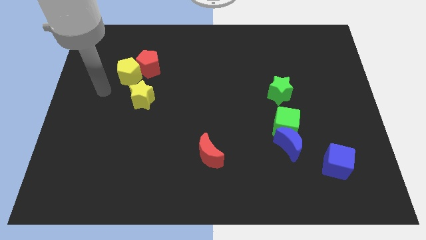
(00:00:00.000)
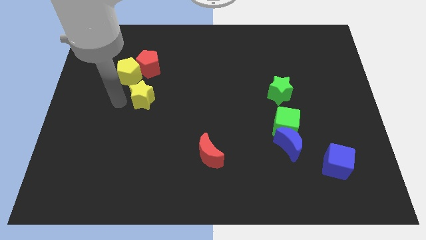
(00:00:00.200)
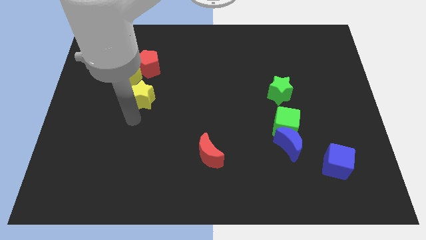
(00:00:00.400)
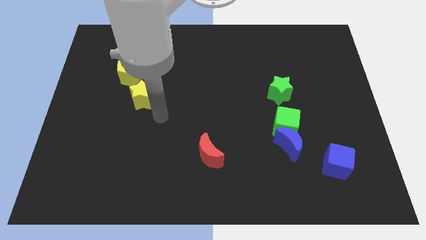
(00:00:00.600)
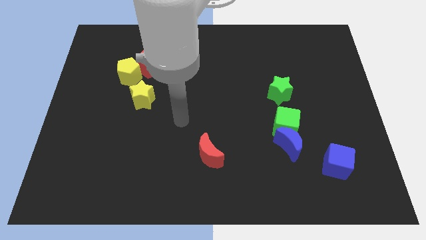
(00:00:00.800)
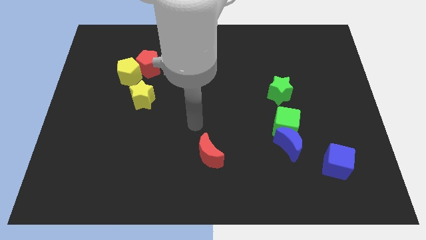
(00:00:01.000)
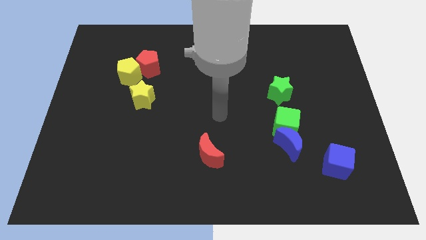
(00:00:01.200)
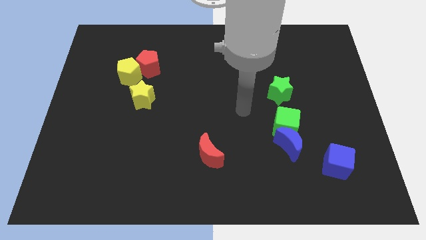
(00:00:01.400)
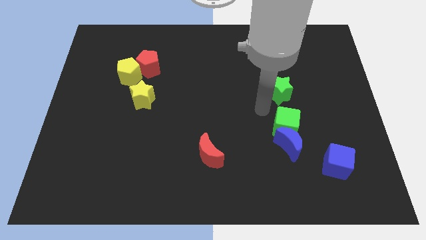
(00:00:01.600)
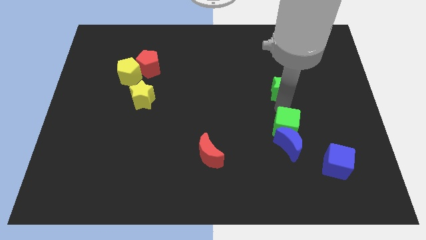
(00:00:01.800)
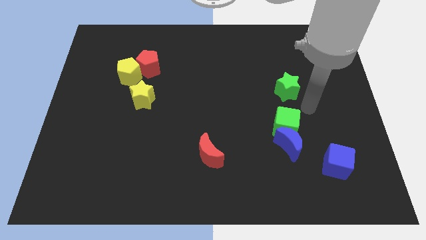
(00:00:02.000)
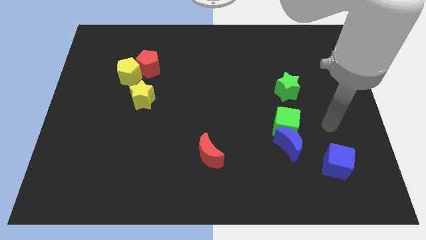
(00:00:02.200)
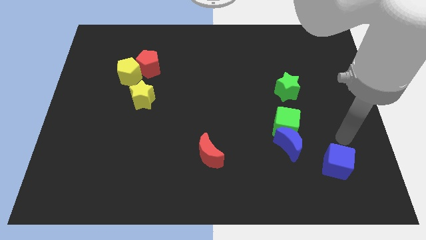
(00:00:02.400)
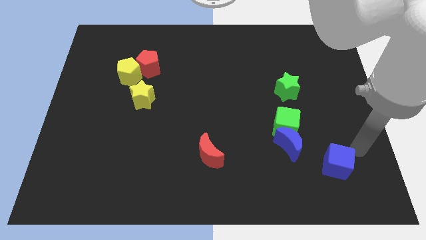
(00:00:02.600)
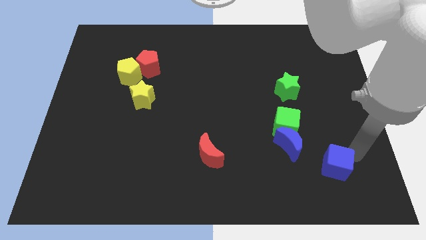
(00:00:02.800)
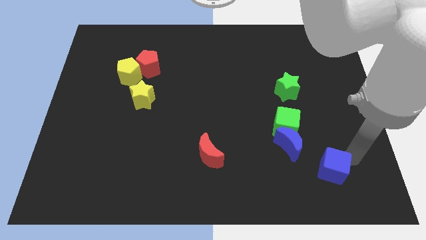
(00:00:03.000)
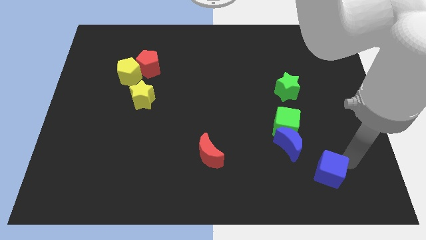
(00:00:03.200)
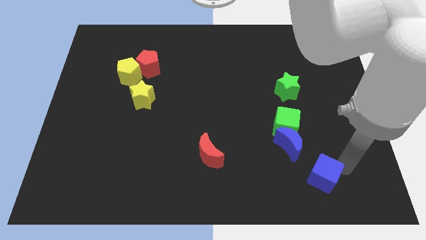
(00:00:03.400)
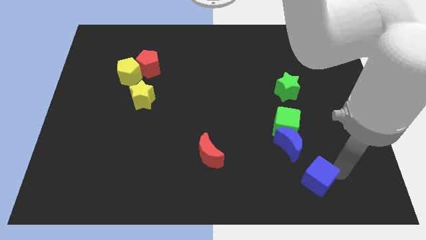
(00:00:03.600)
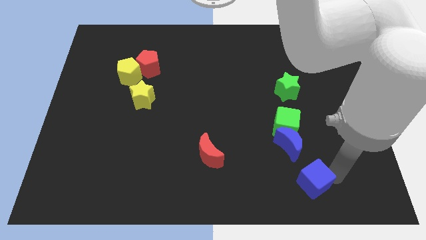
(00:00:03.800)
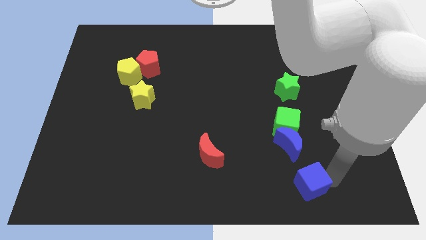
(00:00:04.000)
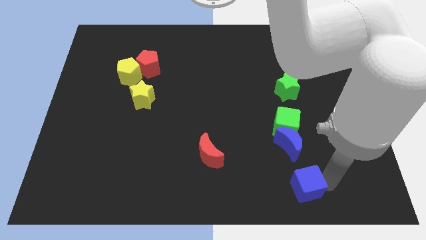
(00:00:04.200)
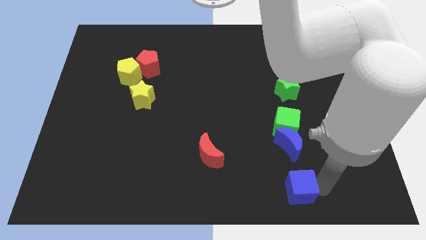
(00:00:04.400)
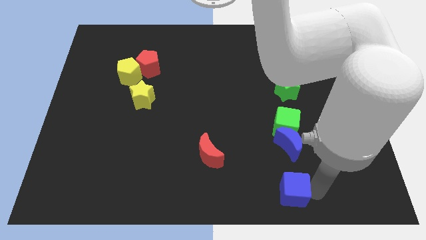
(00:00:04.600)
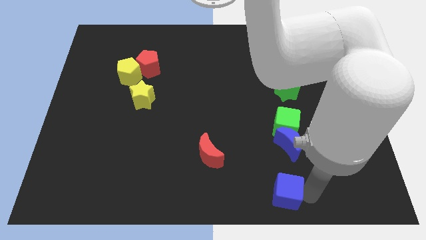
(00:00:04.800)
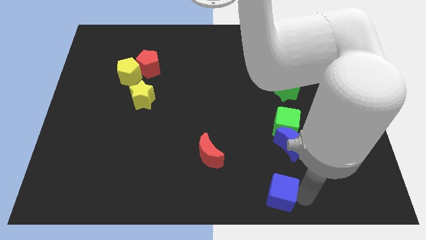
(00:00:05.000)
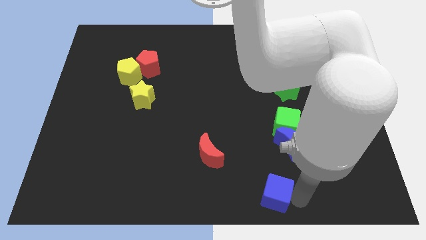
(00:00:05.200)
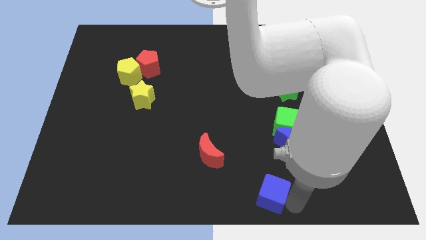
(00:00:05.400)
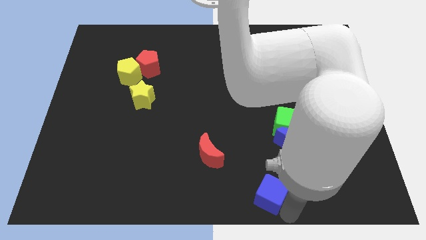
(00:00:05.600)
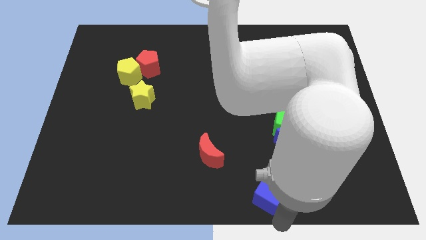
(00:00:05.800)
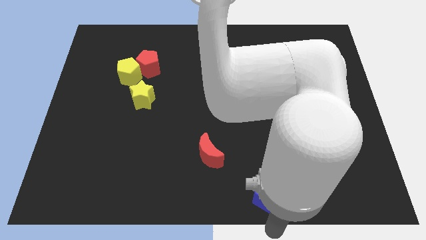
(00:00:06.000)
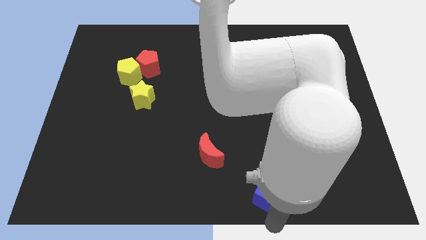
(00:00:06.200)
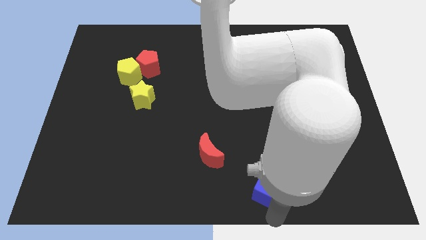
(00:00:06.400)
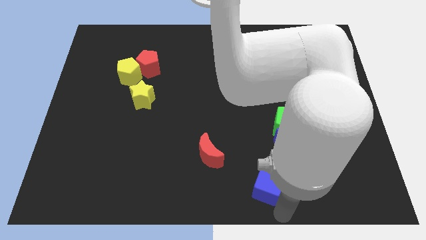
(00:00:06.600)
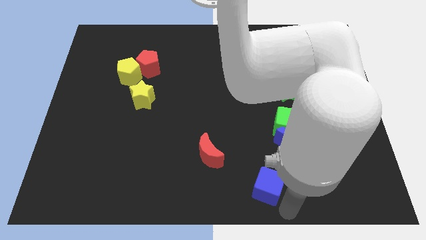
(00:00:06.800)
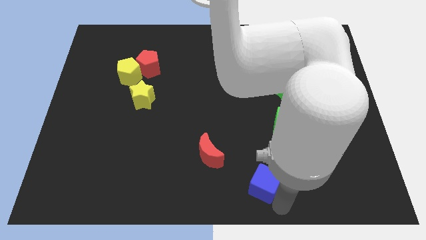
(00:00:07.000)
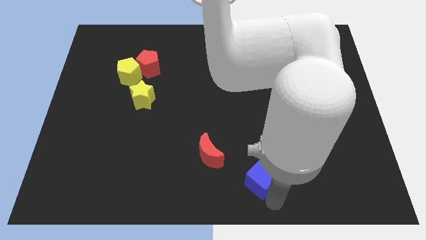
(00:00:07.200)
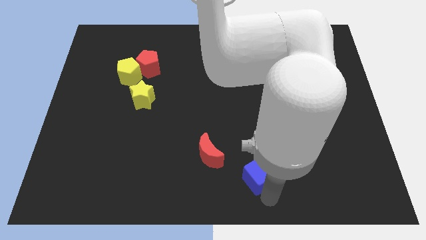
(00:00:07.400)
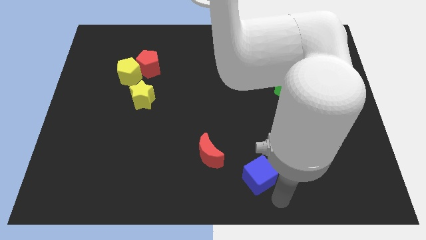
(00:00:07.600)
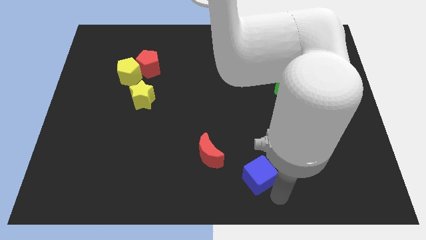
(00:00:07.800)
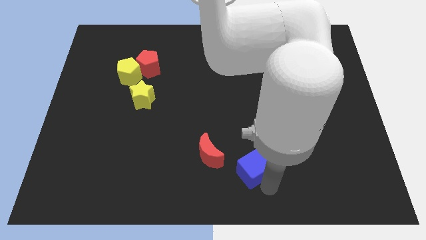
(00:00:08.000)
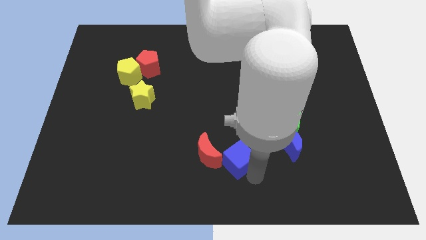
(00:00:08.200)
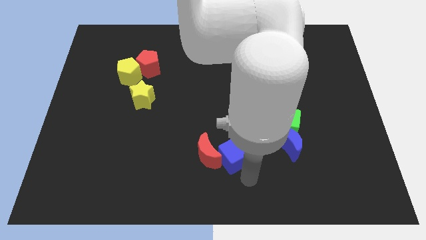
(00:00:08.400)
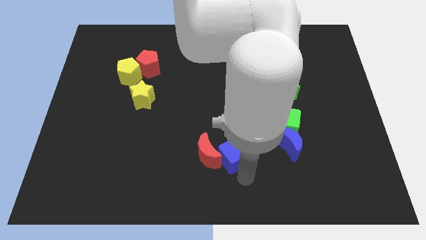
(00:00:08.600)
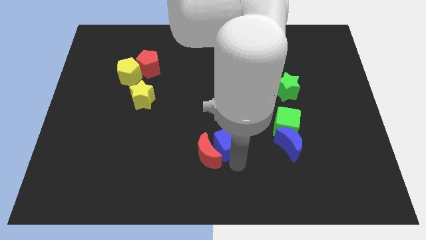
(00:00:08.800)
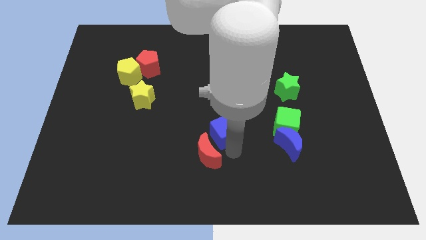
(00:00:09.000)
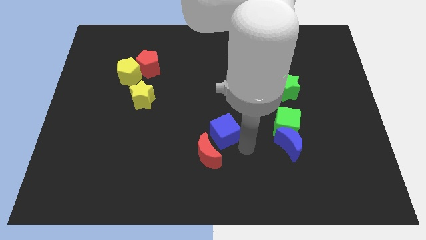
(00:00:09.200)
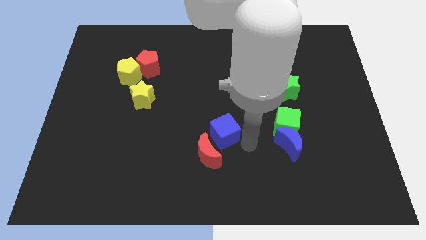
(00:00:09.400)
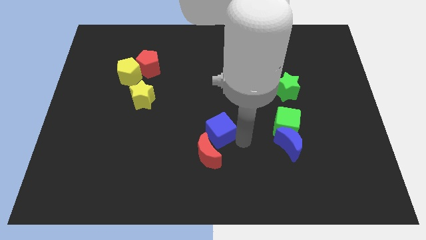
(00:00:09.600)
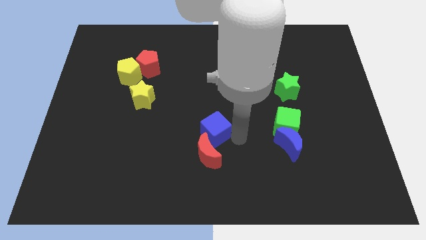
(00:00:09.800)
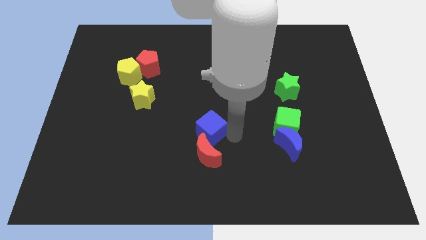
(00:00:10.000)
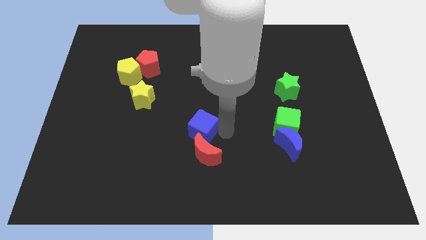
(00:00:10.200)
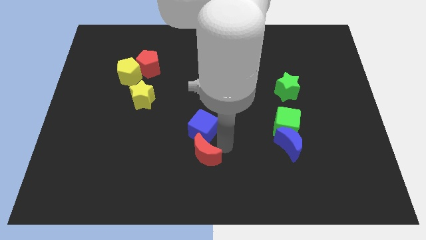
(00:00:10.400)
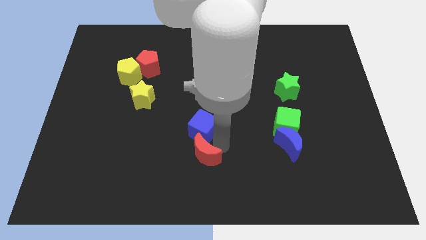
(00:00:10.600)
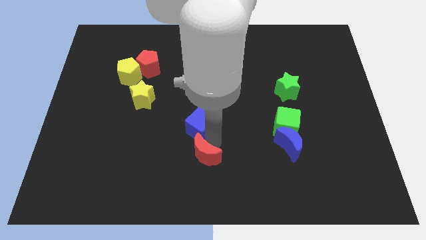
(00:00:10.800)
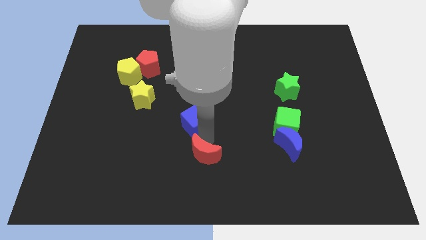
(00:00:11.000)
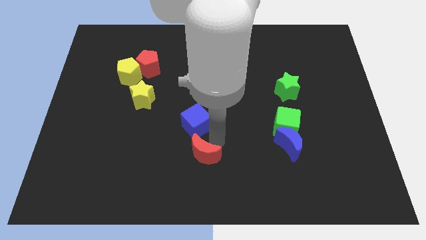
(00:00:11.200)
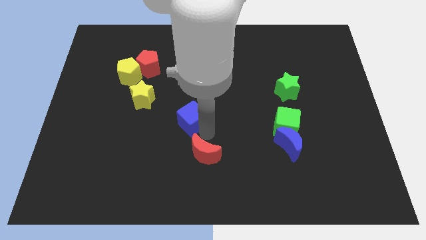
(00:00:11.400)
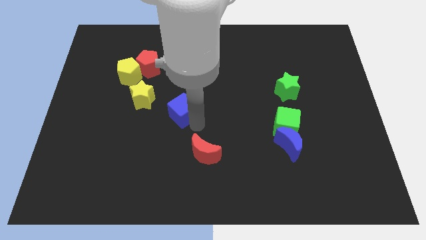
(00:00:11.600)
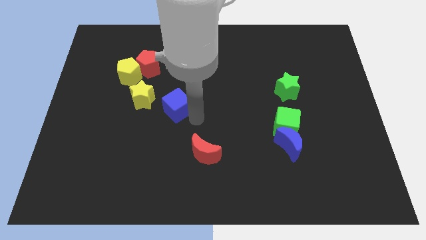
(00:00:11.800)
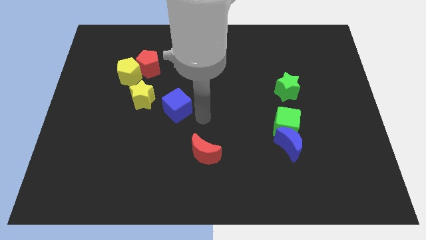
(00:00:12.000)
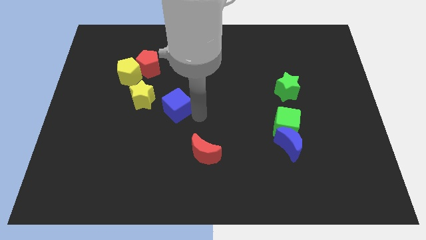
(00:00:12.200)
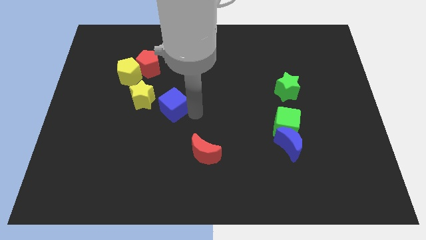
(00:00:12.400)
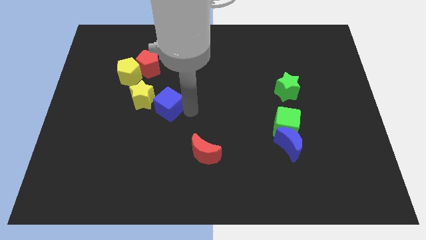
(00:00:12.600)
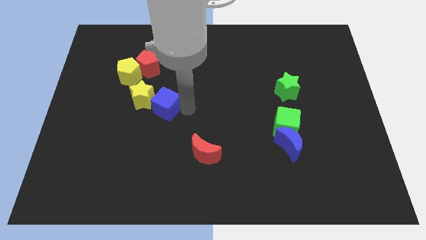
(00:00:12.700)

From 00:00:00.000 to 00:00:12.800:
move the blue cube next to the yellow star

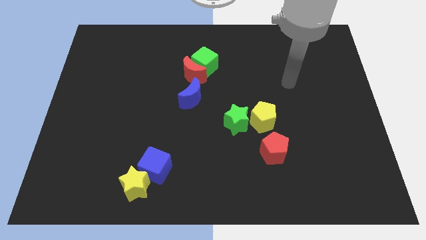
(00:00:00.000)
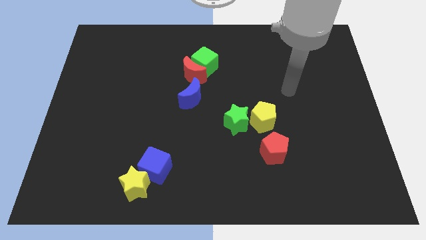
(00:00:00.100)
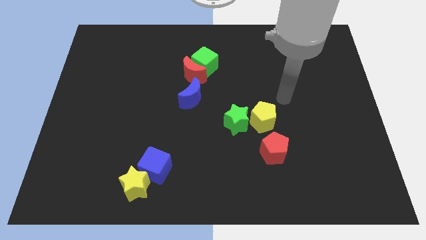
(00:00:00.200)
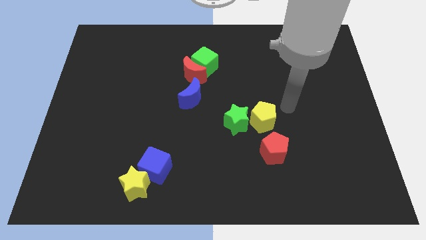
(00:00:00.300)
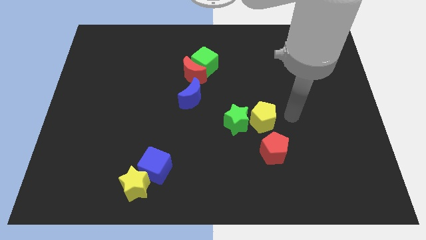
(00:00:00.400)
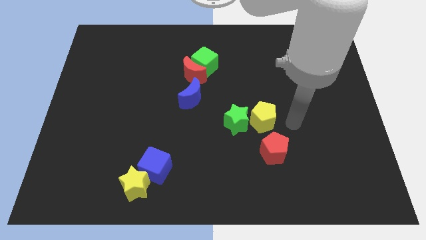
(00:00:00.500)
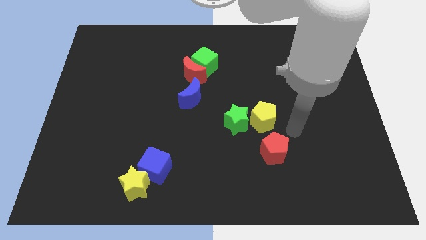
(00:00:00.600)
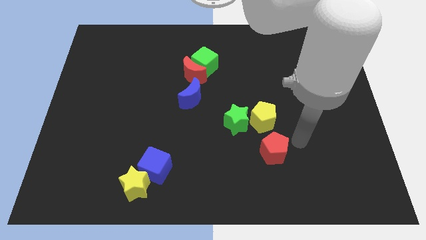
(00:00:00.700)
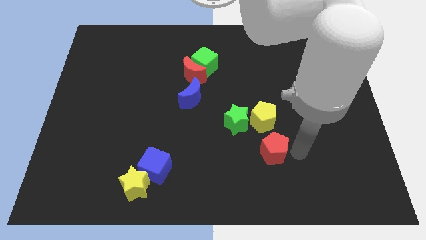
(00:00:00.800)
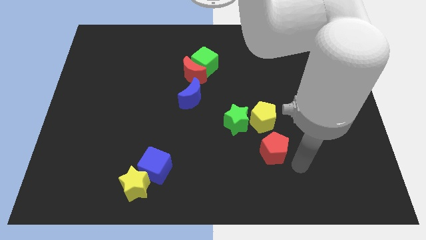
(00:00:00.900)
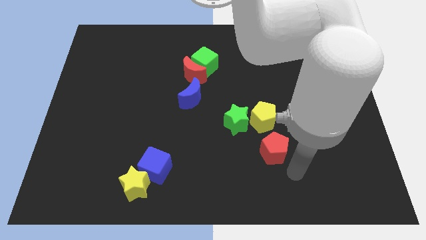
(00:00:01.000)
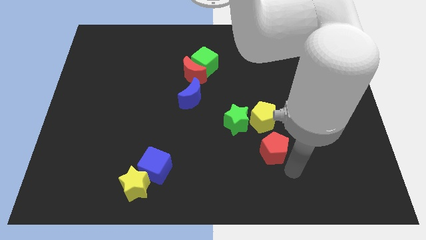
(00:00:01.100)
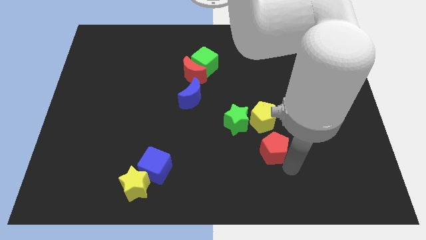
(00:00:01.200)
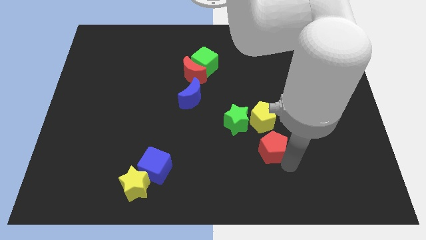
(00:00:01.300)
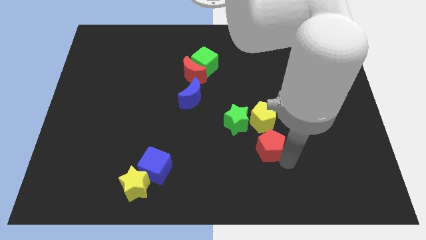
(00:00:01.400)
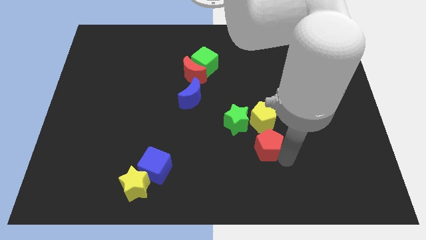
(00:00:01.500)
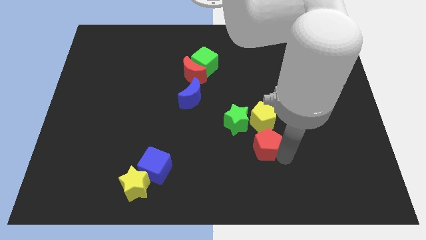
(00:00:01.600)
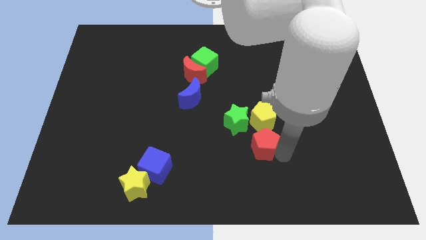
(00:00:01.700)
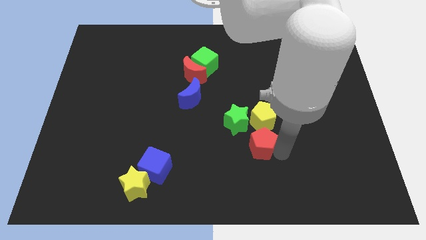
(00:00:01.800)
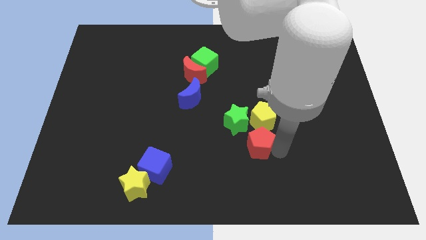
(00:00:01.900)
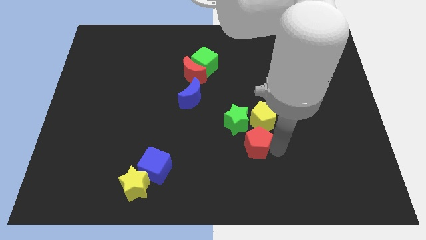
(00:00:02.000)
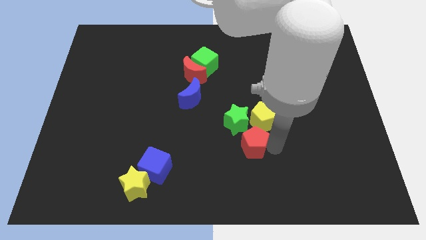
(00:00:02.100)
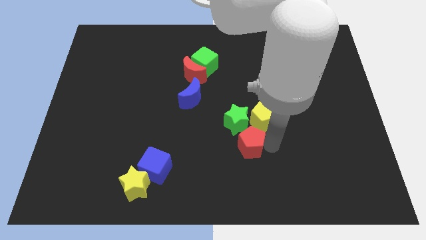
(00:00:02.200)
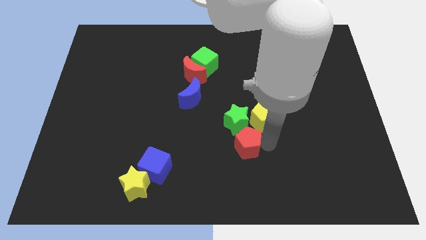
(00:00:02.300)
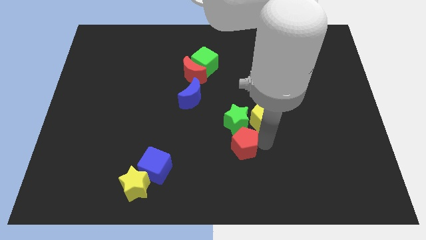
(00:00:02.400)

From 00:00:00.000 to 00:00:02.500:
move the red pentagon close to the green star
